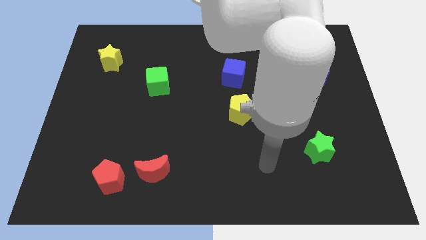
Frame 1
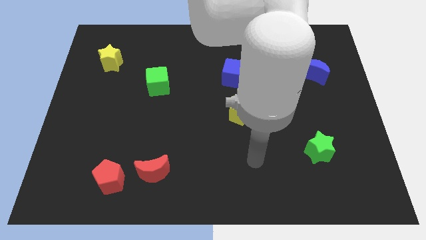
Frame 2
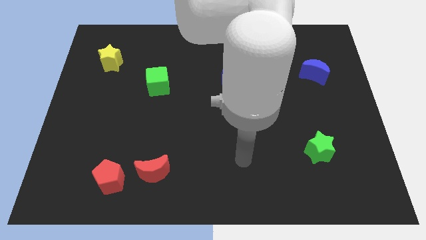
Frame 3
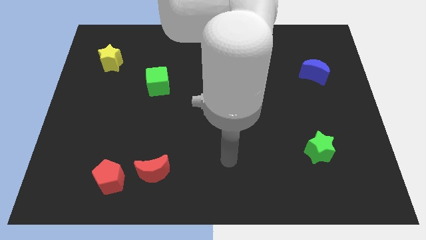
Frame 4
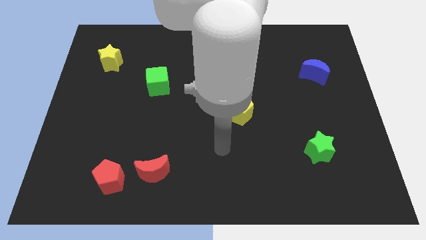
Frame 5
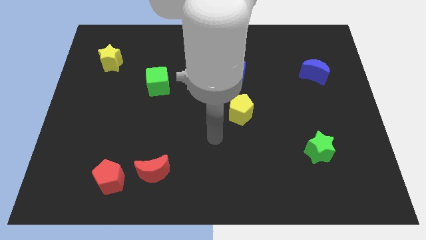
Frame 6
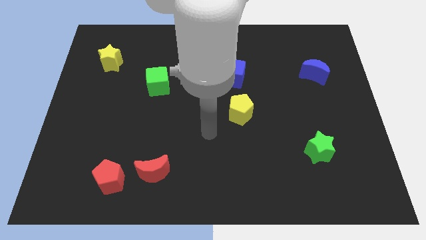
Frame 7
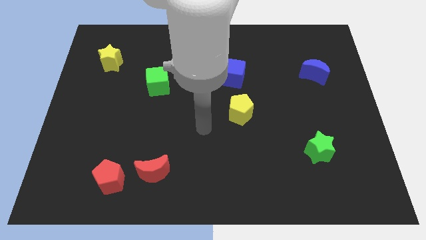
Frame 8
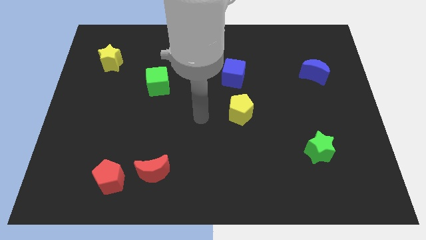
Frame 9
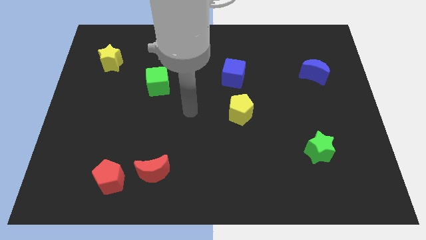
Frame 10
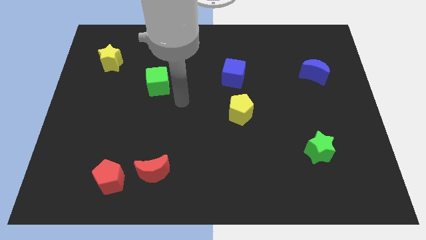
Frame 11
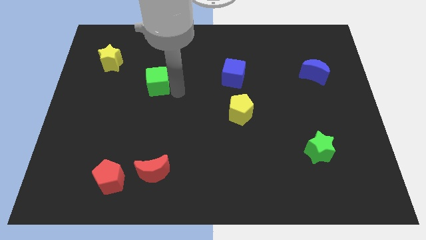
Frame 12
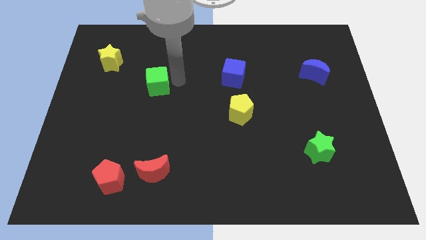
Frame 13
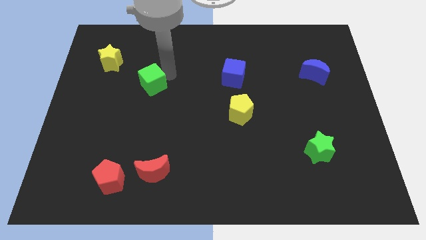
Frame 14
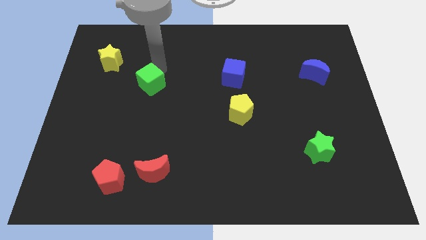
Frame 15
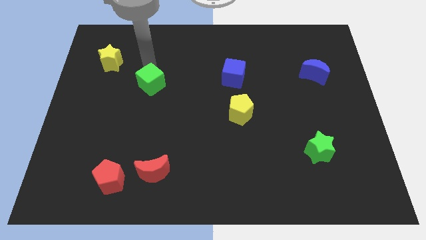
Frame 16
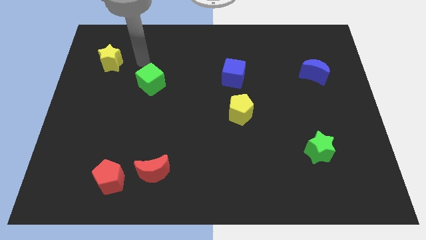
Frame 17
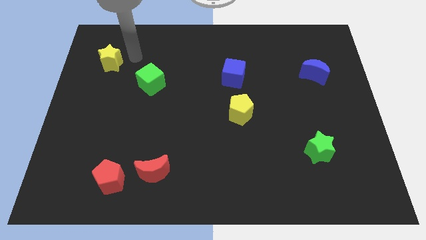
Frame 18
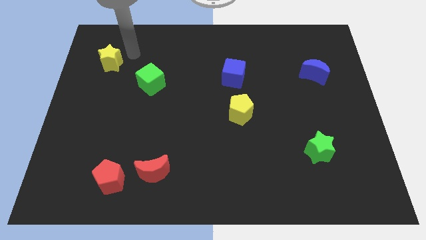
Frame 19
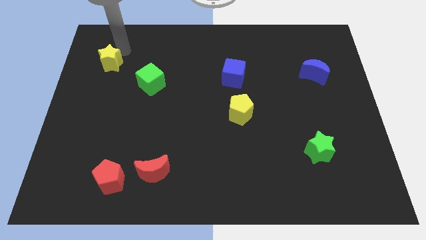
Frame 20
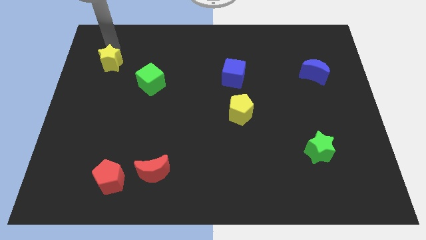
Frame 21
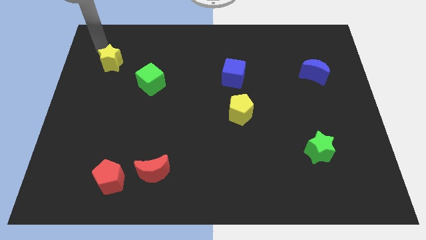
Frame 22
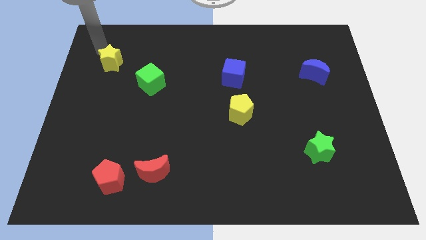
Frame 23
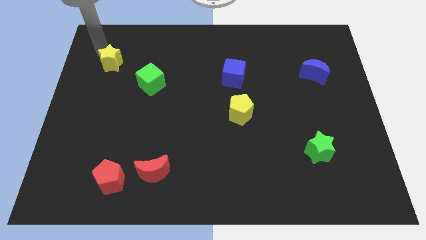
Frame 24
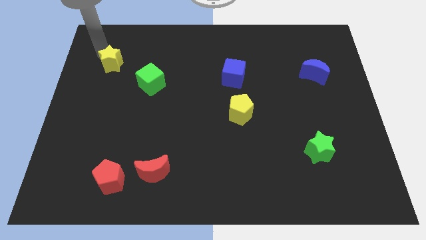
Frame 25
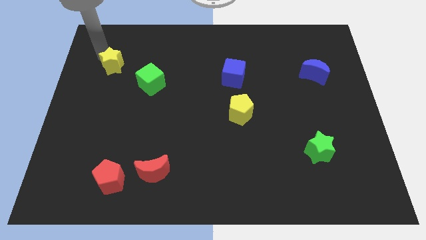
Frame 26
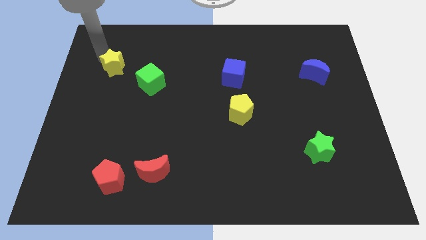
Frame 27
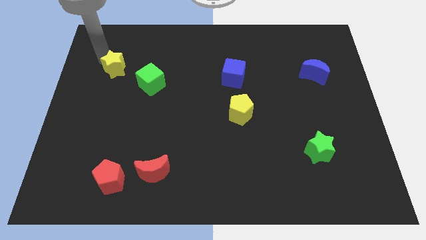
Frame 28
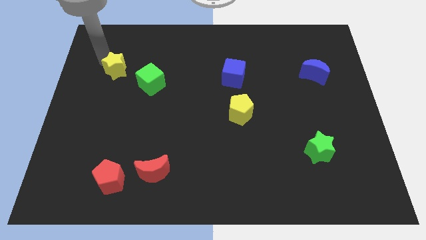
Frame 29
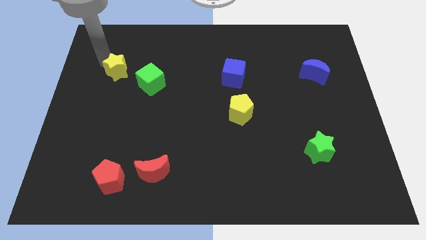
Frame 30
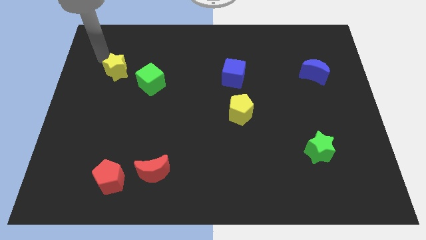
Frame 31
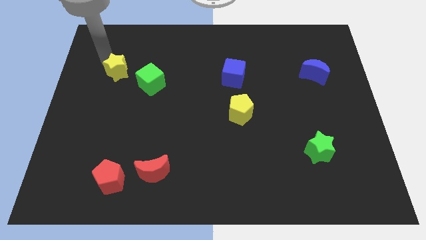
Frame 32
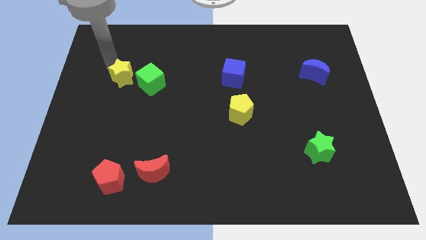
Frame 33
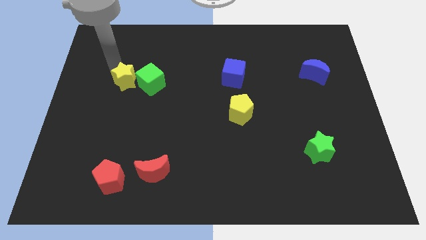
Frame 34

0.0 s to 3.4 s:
slide the yellow star diagonally downwards and right a bit

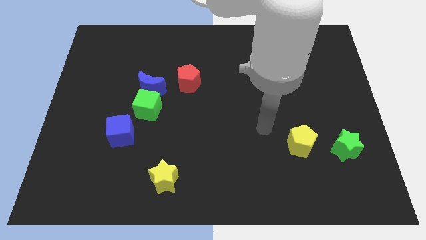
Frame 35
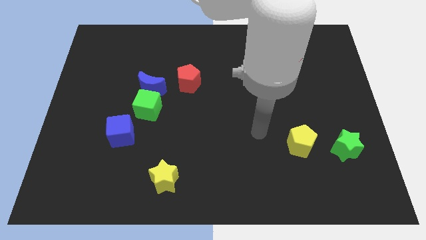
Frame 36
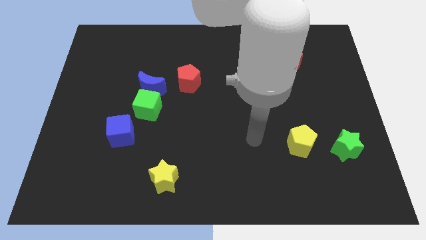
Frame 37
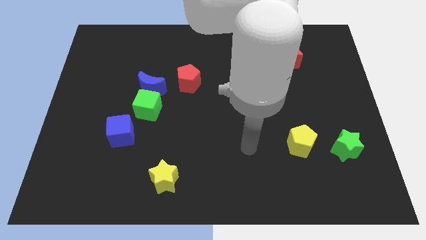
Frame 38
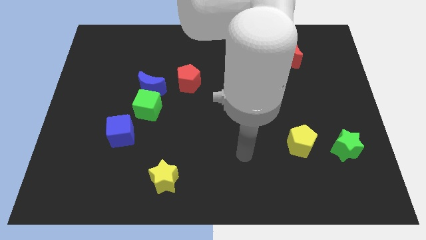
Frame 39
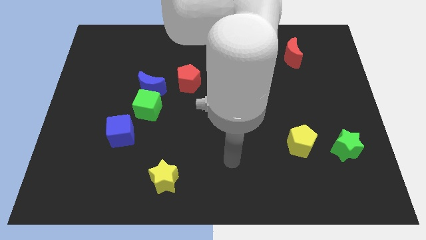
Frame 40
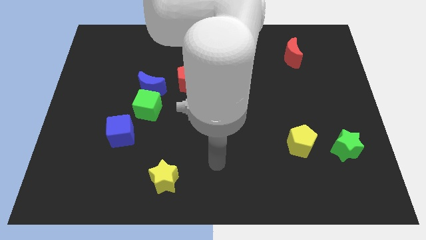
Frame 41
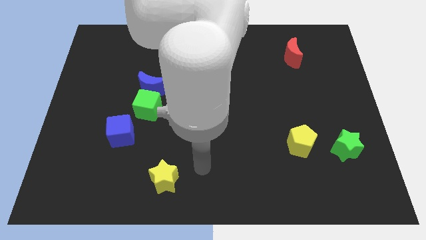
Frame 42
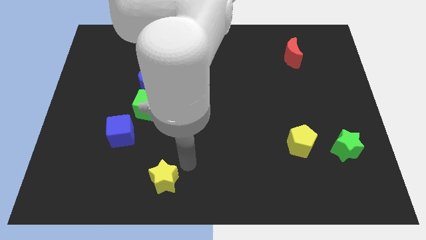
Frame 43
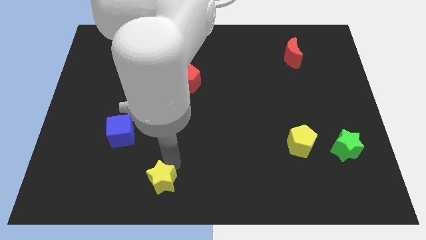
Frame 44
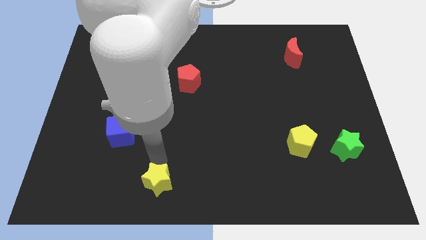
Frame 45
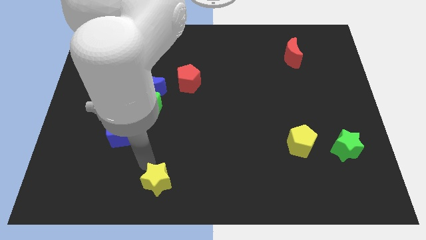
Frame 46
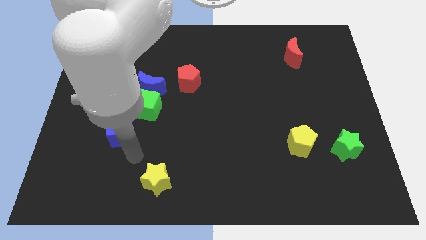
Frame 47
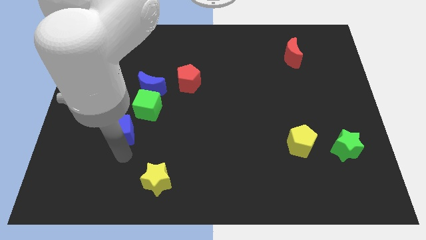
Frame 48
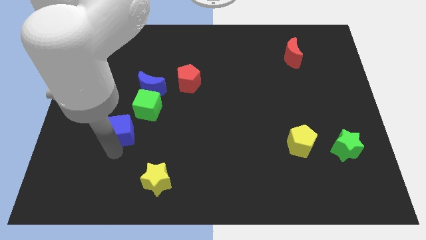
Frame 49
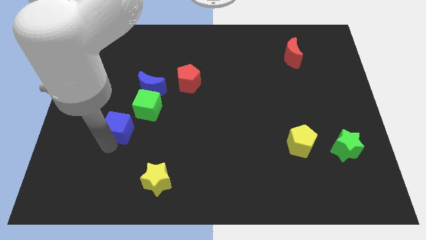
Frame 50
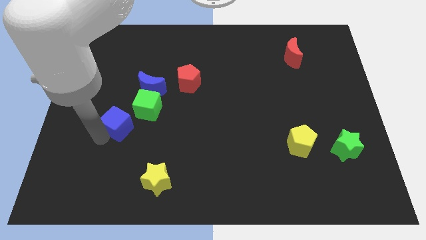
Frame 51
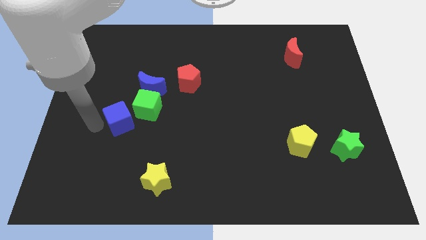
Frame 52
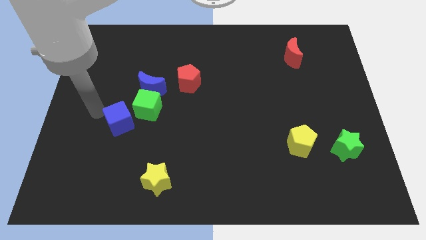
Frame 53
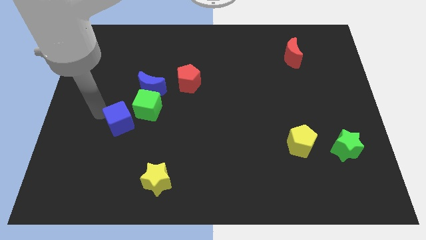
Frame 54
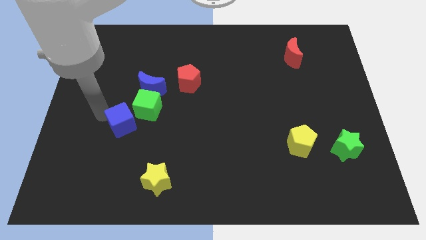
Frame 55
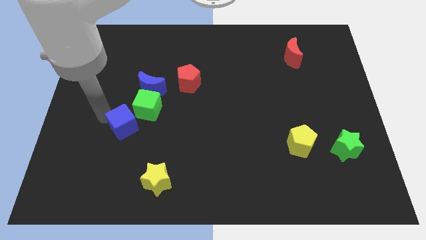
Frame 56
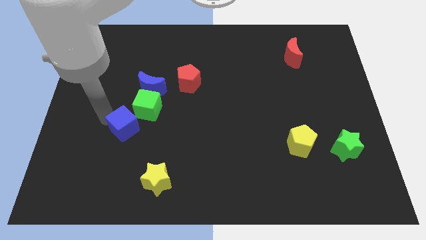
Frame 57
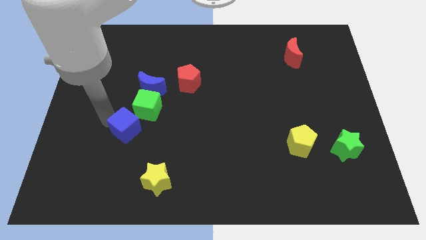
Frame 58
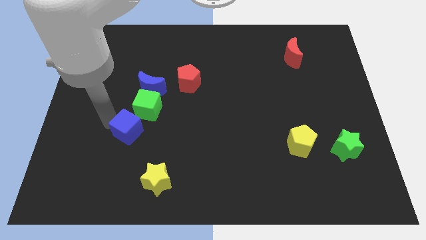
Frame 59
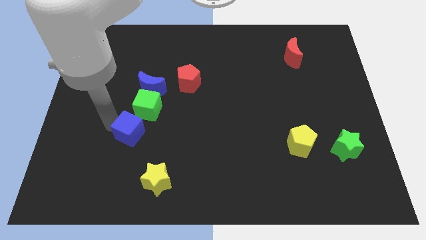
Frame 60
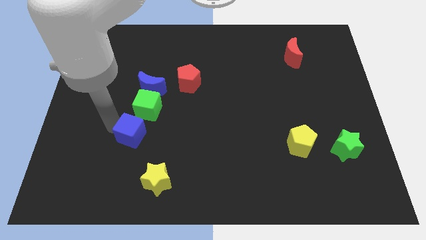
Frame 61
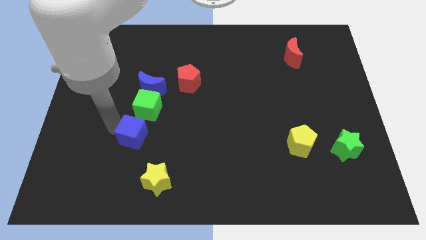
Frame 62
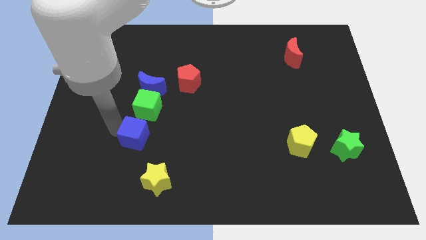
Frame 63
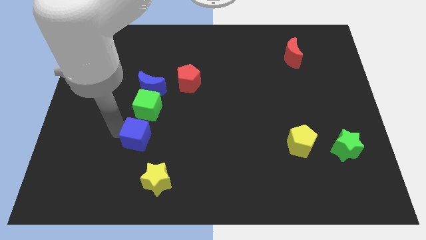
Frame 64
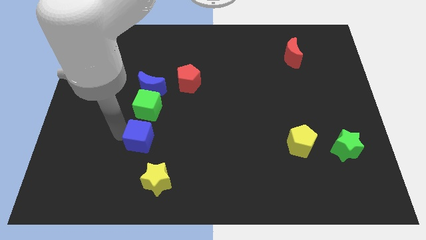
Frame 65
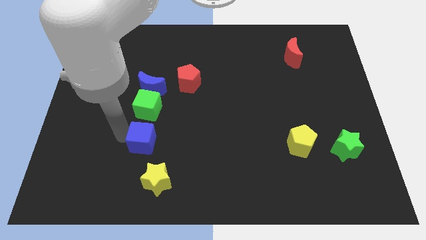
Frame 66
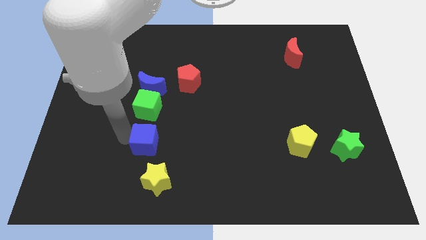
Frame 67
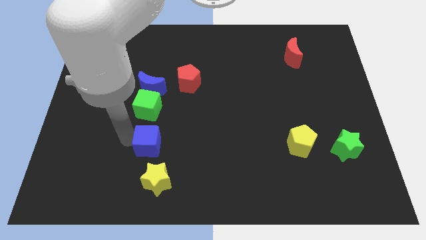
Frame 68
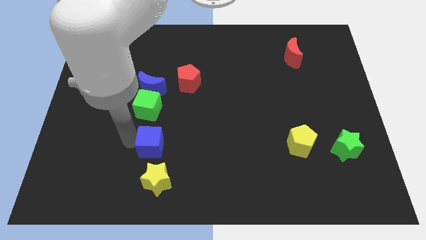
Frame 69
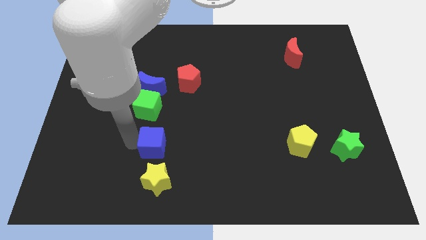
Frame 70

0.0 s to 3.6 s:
push the blue cube slightly to the right

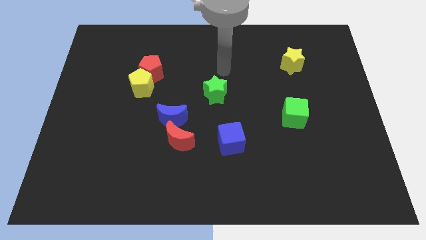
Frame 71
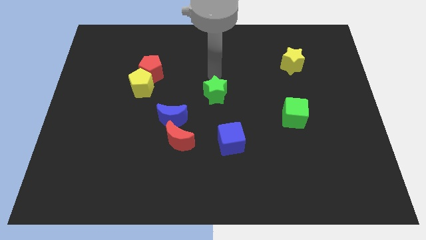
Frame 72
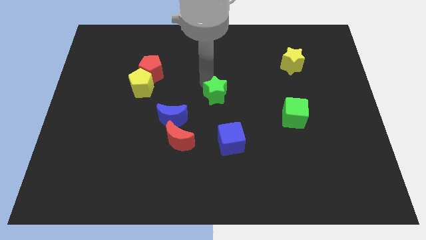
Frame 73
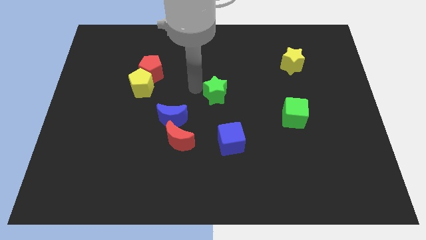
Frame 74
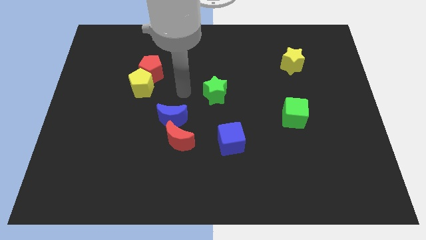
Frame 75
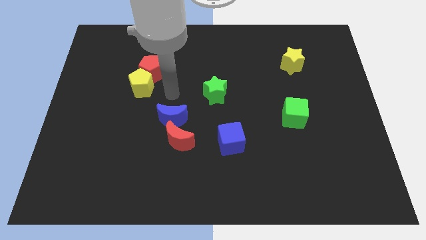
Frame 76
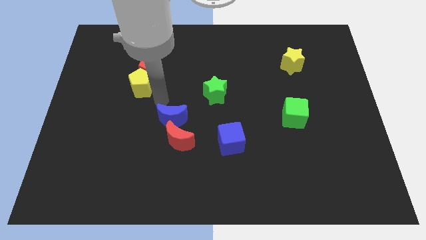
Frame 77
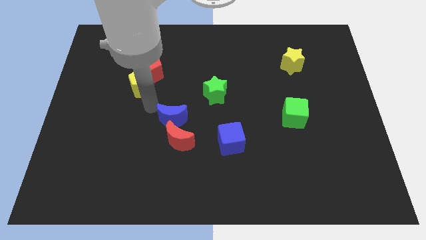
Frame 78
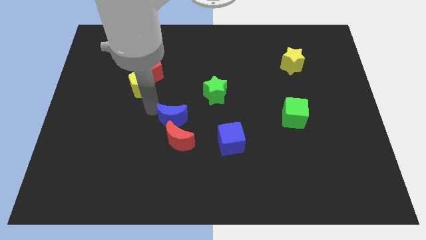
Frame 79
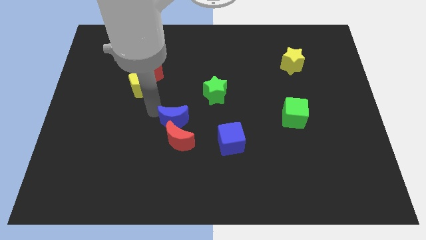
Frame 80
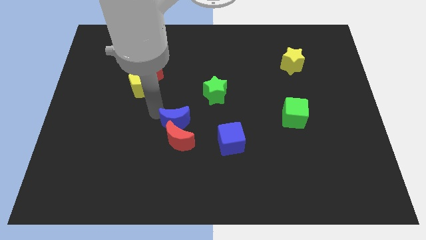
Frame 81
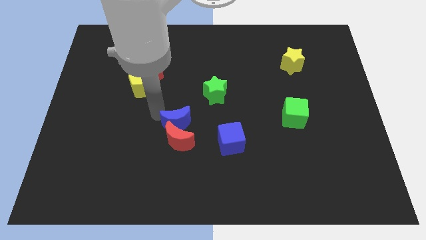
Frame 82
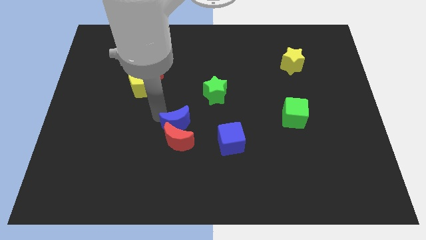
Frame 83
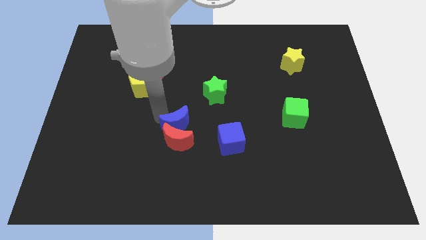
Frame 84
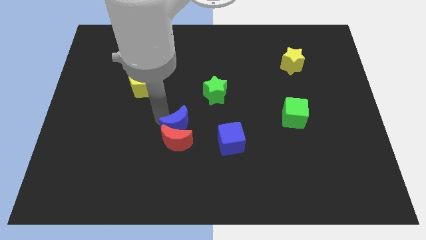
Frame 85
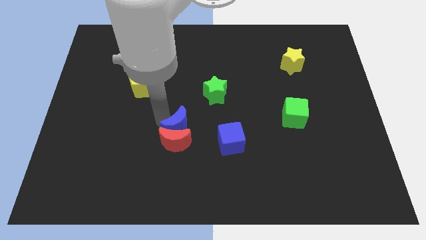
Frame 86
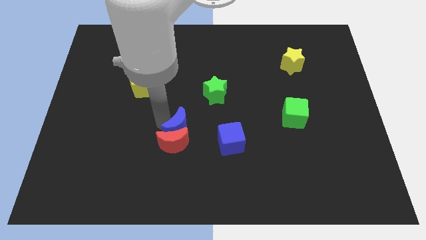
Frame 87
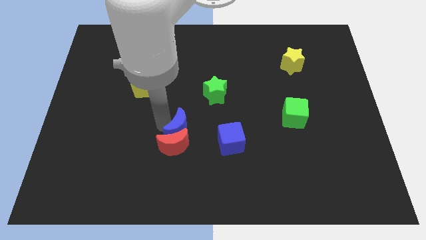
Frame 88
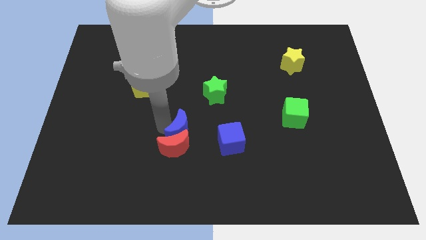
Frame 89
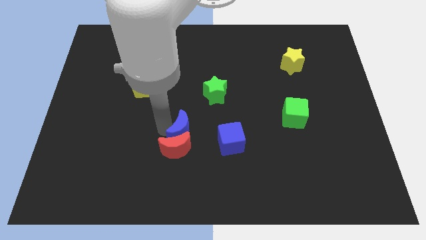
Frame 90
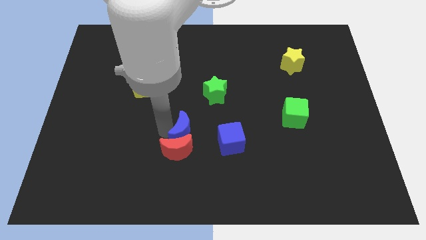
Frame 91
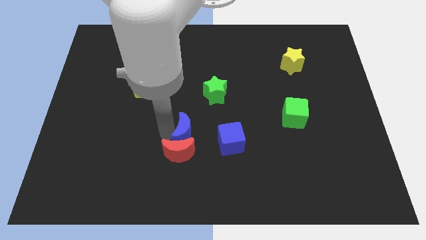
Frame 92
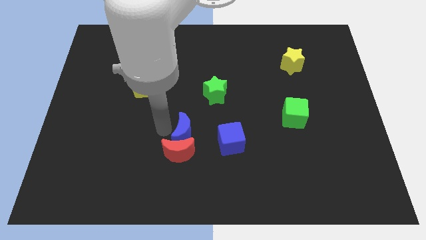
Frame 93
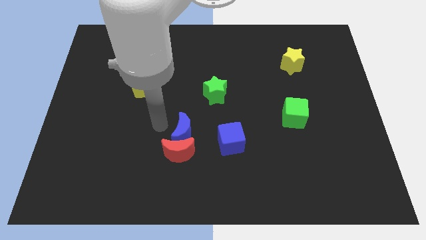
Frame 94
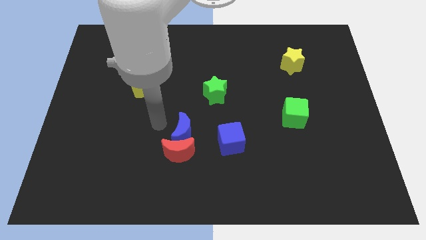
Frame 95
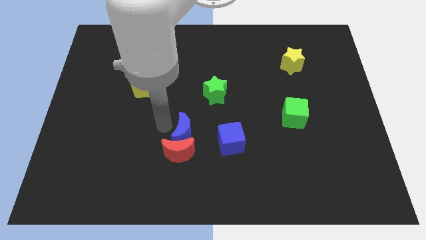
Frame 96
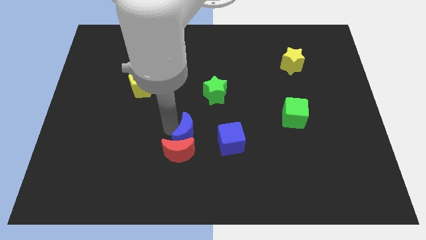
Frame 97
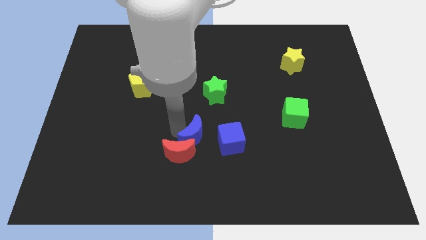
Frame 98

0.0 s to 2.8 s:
slide the blue moon a bit down and then to the right
